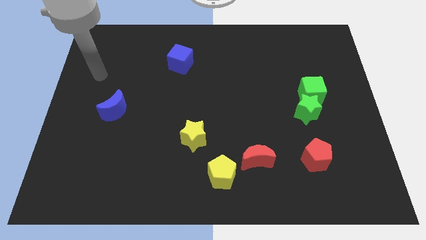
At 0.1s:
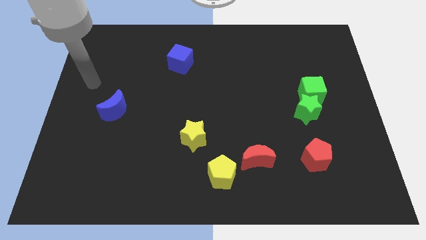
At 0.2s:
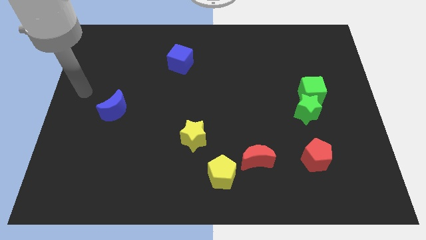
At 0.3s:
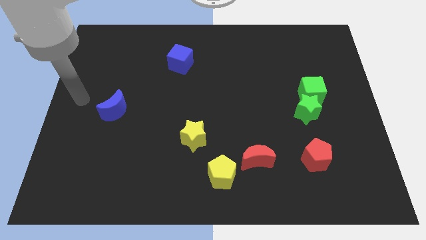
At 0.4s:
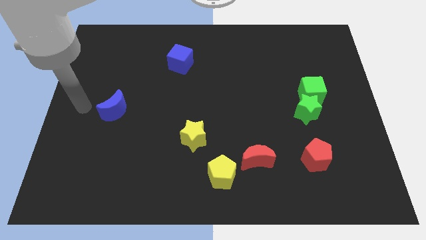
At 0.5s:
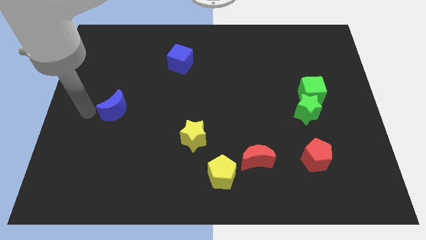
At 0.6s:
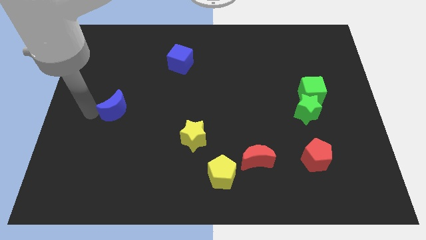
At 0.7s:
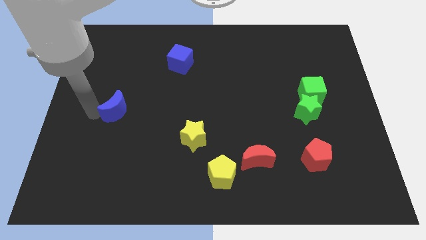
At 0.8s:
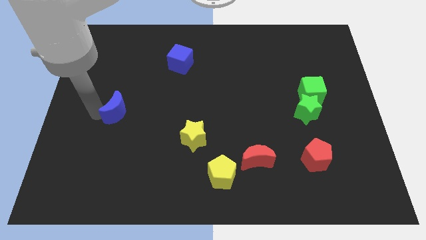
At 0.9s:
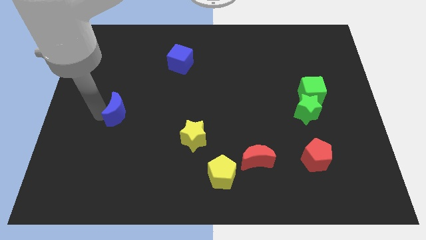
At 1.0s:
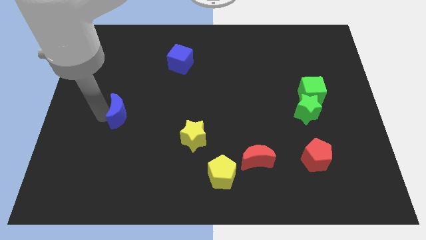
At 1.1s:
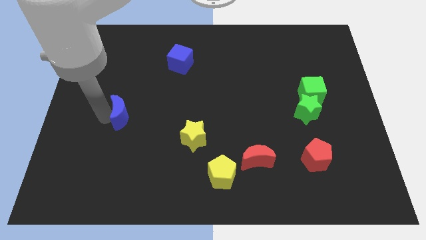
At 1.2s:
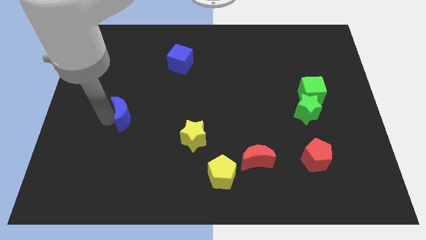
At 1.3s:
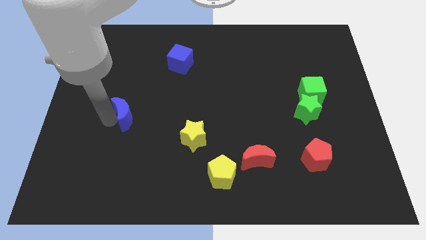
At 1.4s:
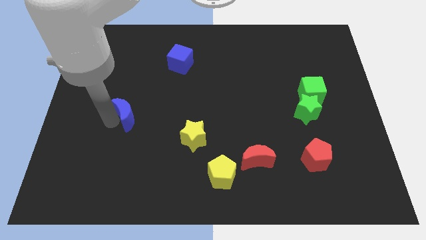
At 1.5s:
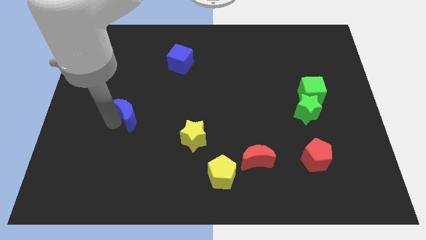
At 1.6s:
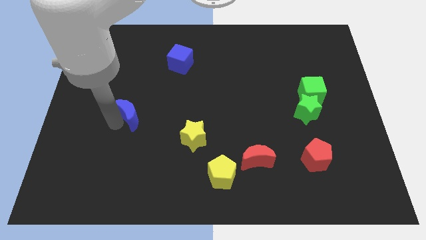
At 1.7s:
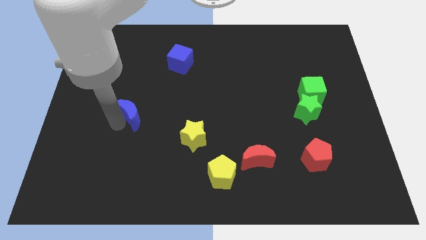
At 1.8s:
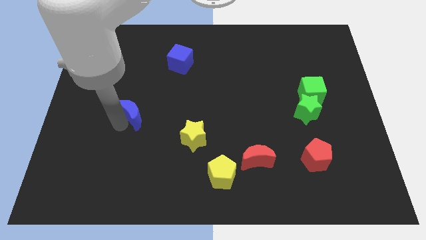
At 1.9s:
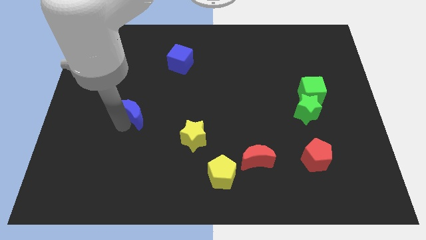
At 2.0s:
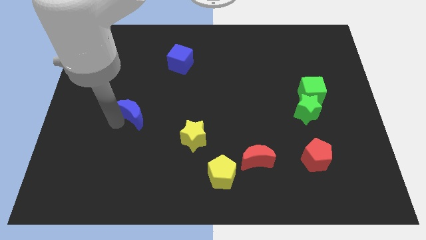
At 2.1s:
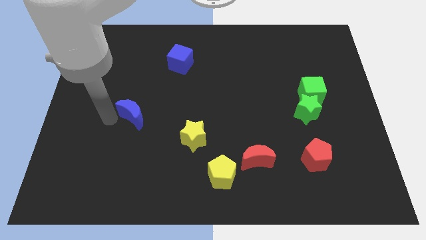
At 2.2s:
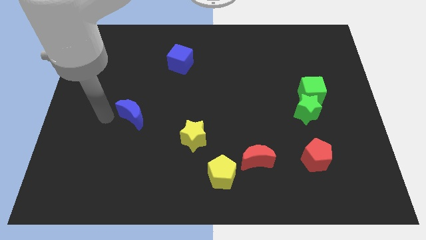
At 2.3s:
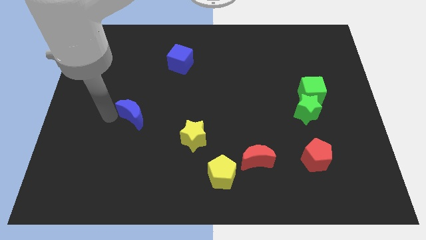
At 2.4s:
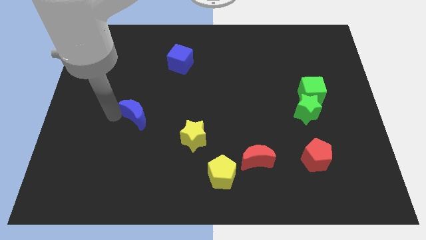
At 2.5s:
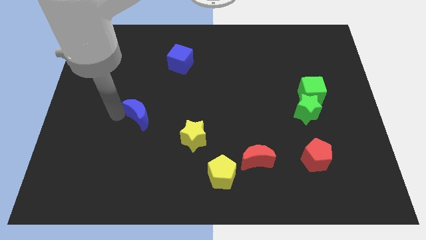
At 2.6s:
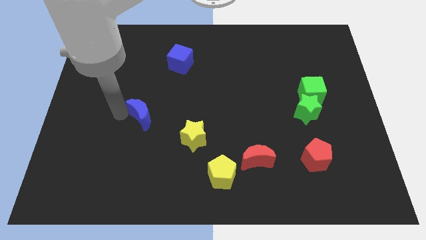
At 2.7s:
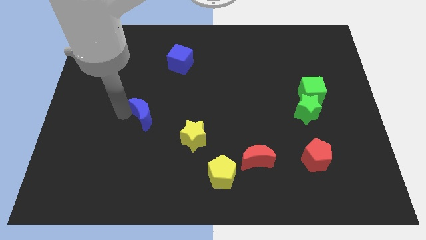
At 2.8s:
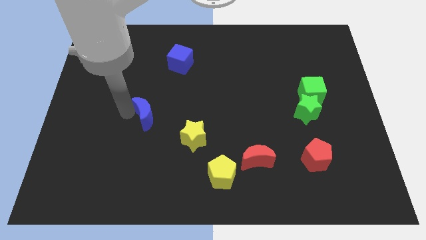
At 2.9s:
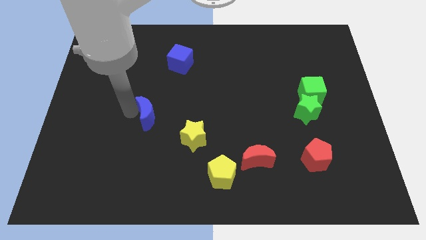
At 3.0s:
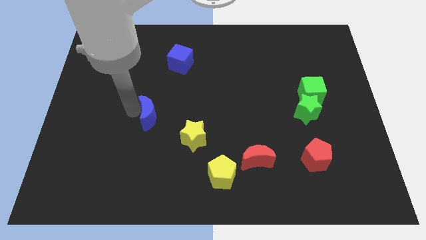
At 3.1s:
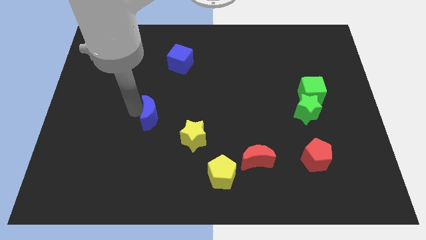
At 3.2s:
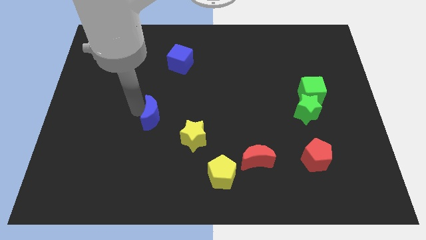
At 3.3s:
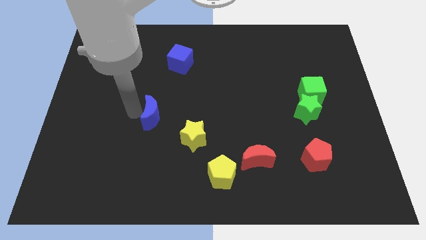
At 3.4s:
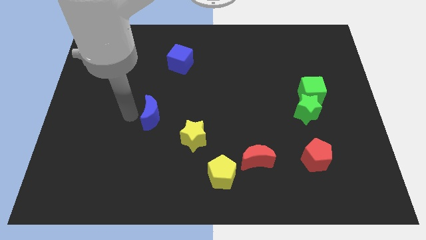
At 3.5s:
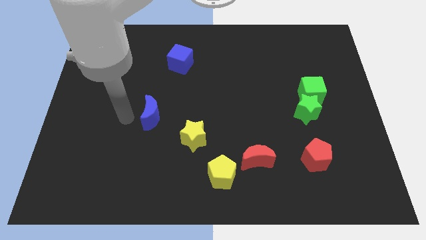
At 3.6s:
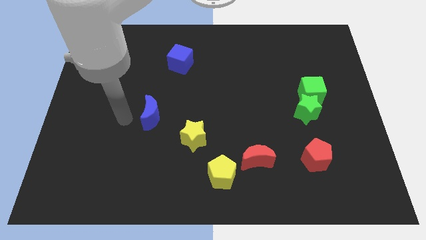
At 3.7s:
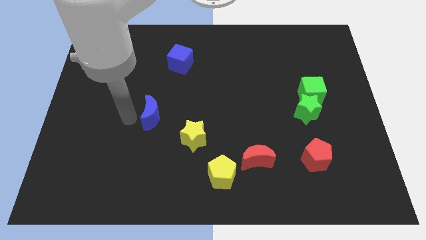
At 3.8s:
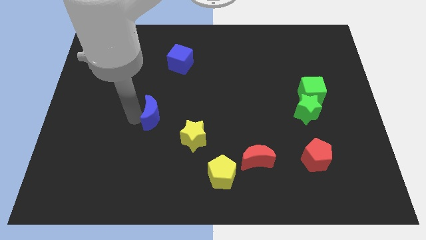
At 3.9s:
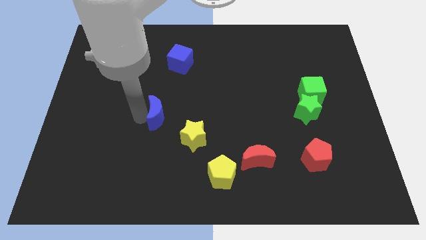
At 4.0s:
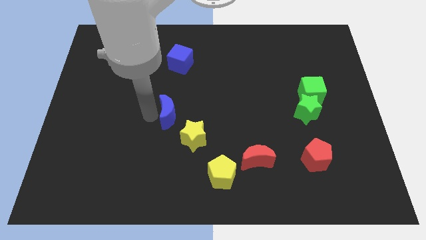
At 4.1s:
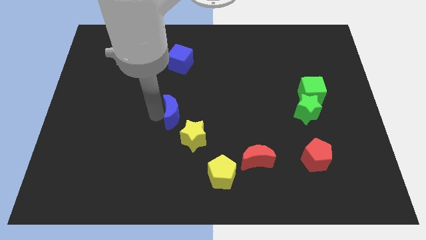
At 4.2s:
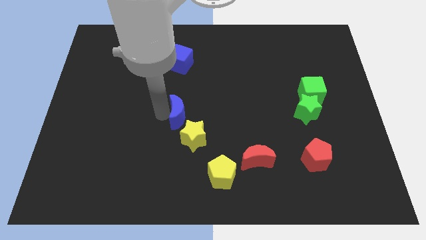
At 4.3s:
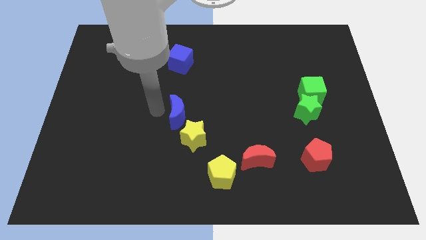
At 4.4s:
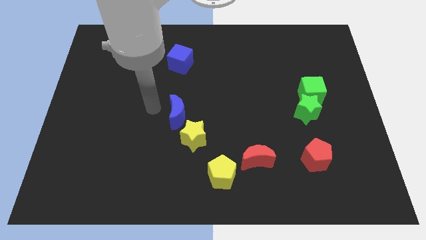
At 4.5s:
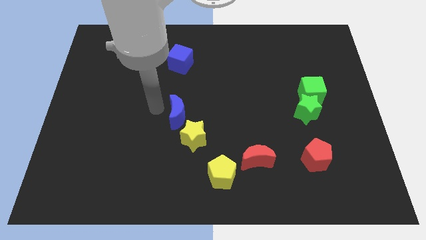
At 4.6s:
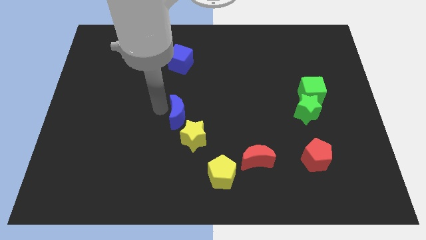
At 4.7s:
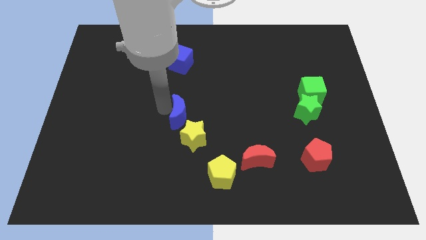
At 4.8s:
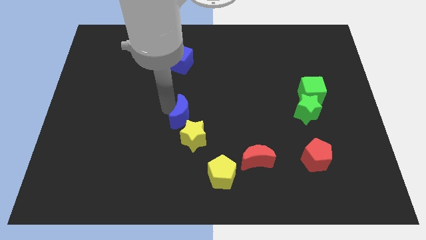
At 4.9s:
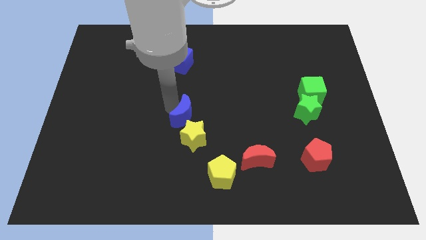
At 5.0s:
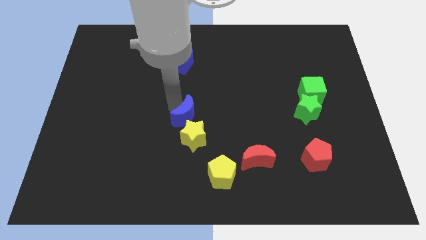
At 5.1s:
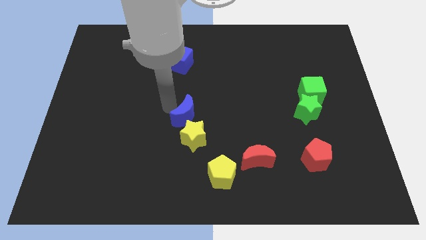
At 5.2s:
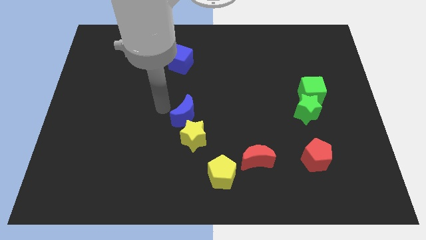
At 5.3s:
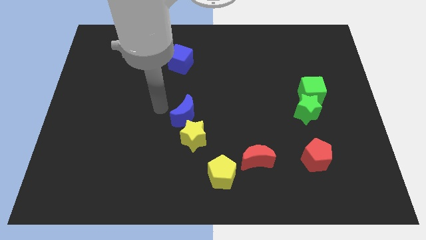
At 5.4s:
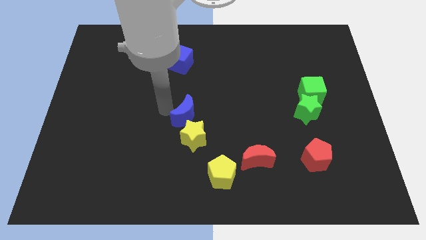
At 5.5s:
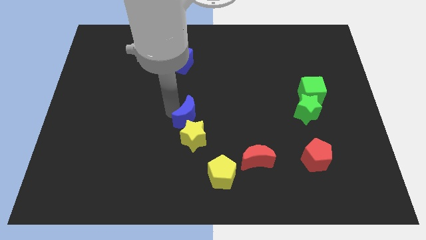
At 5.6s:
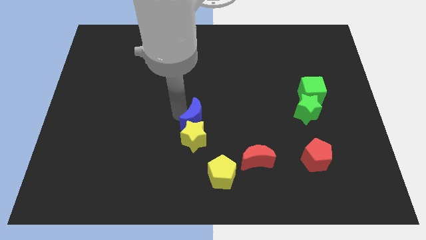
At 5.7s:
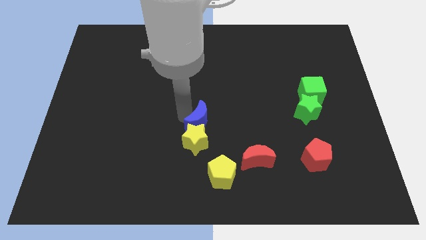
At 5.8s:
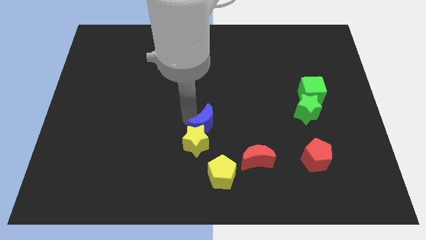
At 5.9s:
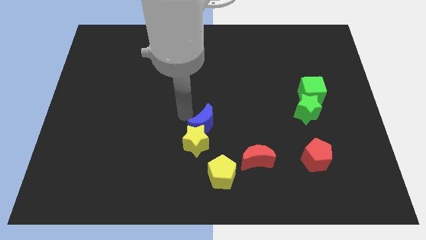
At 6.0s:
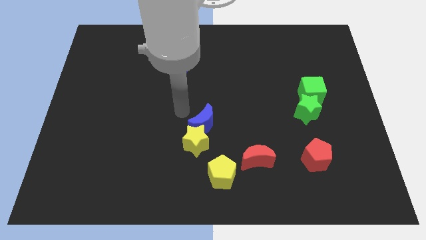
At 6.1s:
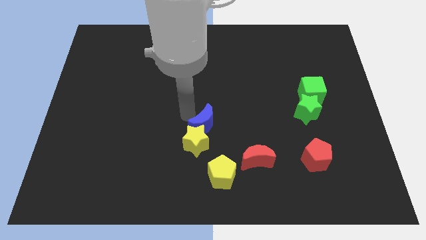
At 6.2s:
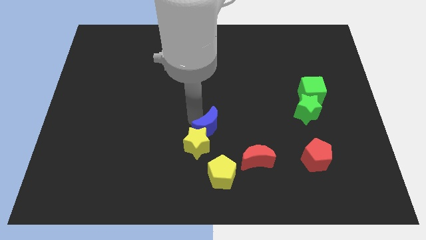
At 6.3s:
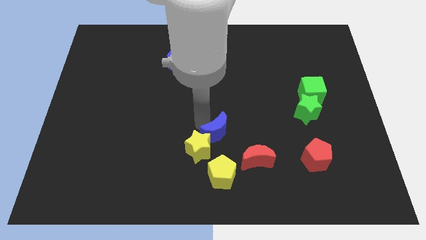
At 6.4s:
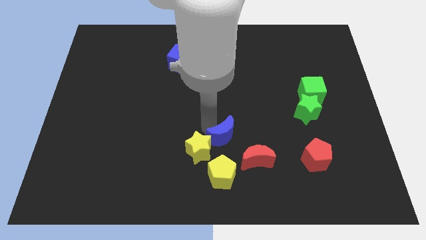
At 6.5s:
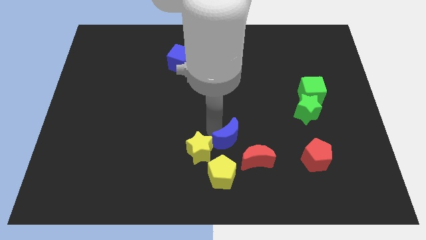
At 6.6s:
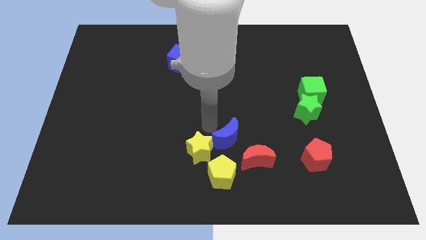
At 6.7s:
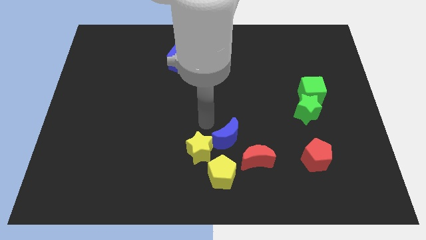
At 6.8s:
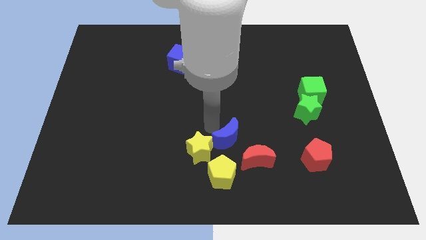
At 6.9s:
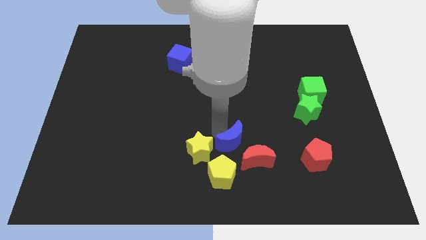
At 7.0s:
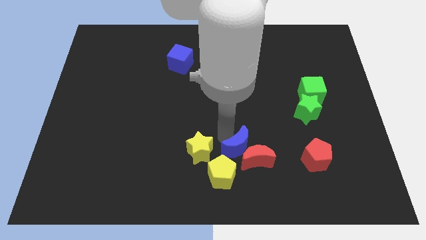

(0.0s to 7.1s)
move the blue moon close to the red moon
